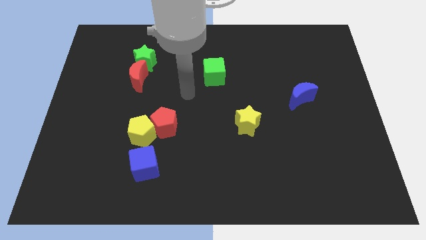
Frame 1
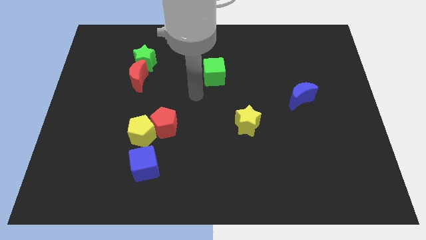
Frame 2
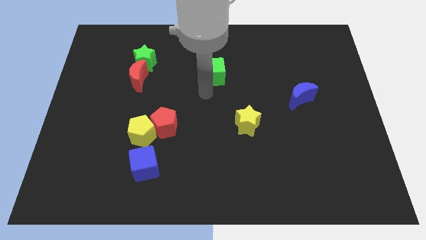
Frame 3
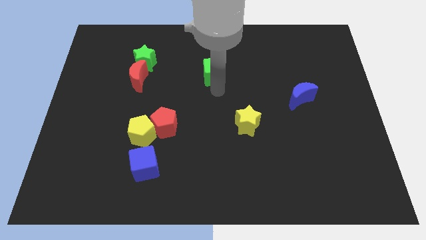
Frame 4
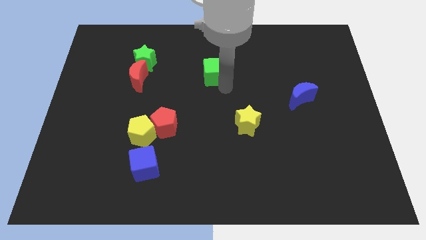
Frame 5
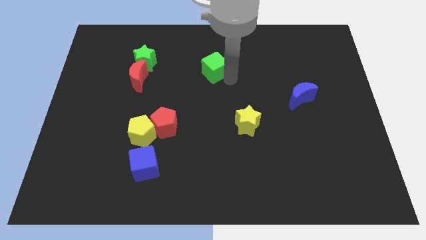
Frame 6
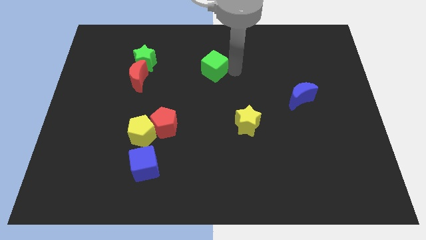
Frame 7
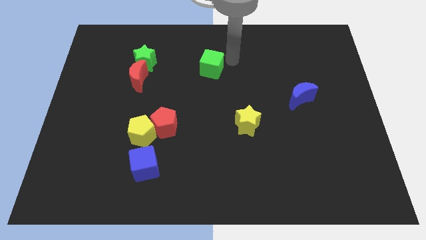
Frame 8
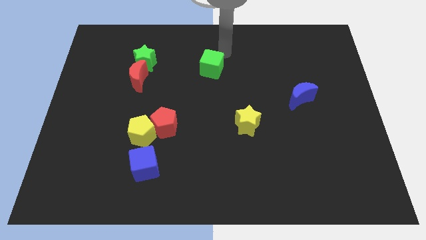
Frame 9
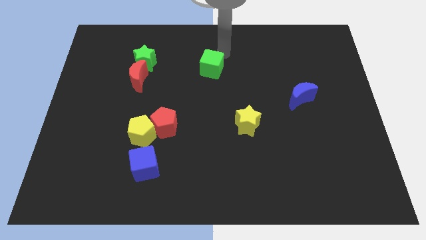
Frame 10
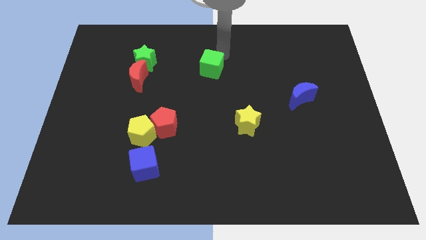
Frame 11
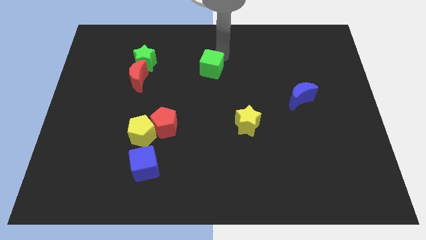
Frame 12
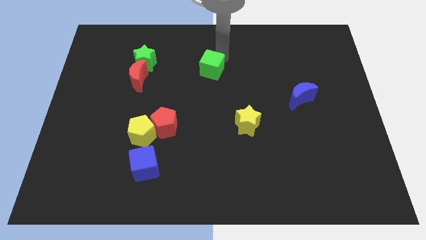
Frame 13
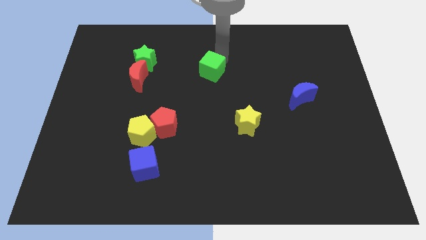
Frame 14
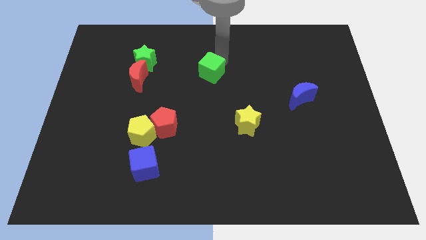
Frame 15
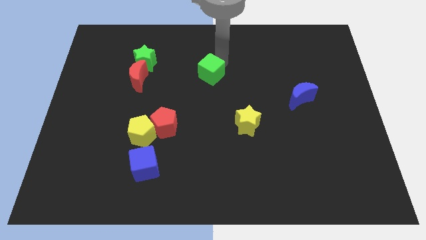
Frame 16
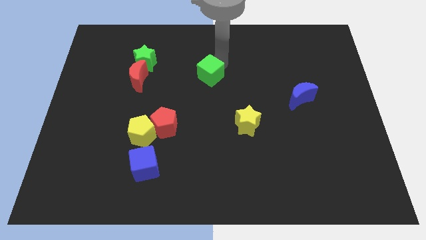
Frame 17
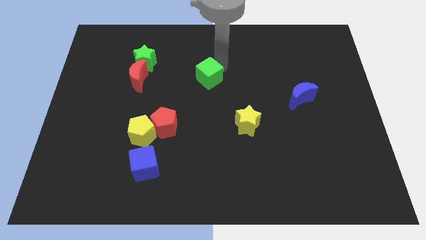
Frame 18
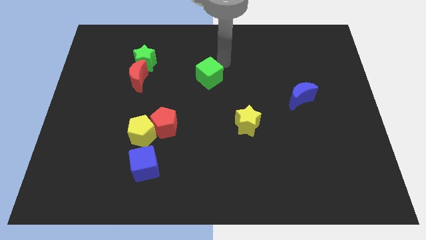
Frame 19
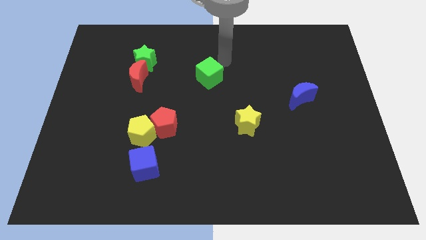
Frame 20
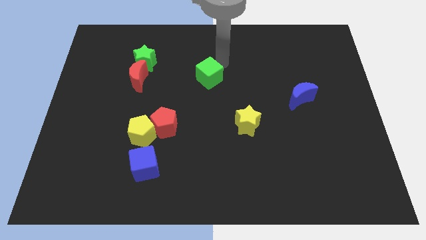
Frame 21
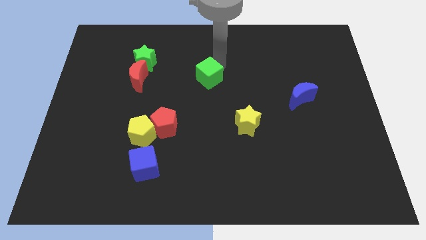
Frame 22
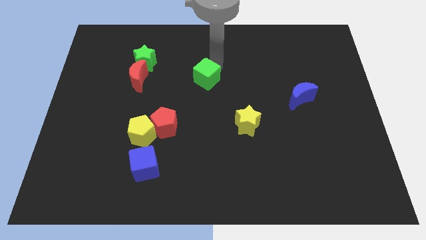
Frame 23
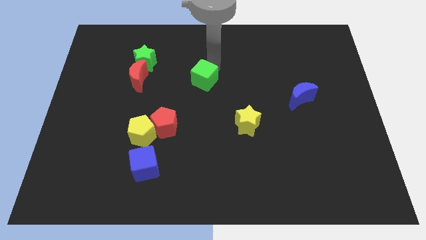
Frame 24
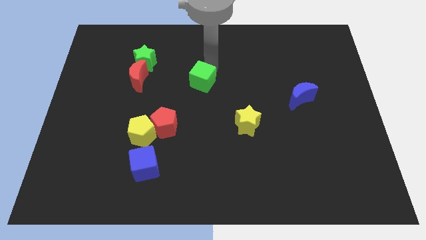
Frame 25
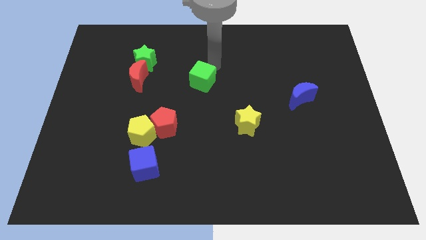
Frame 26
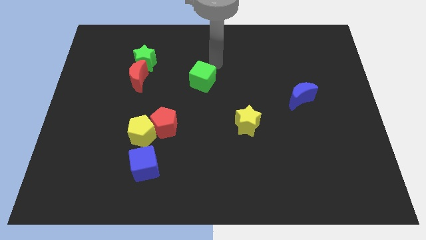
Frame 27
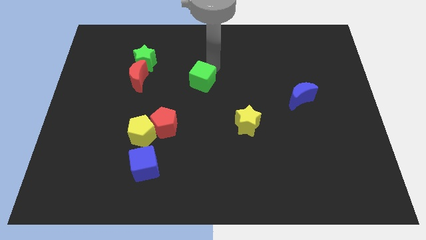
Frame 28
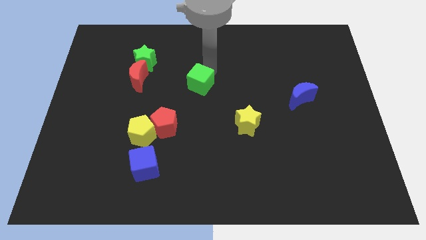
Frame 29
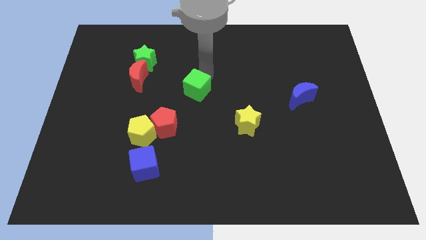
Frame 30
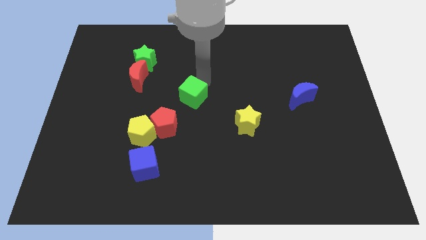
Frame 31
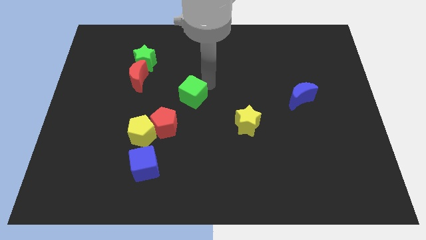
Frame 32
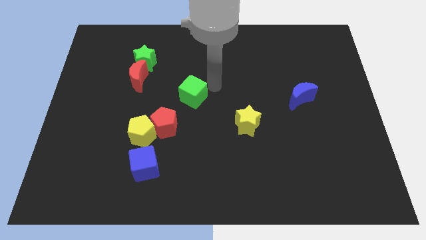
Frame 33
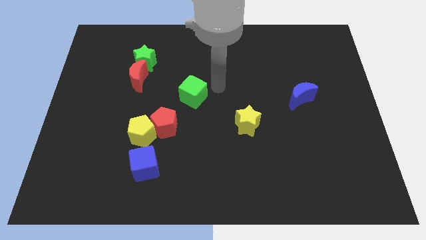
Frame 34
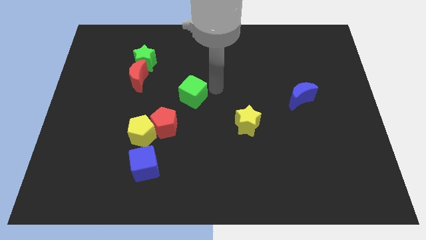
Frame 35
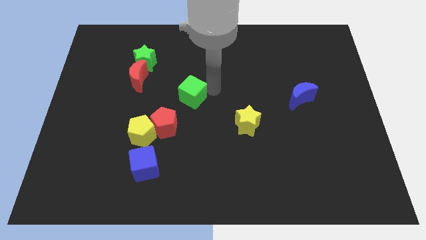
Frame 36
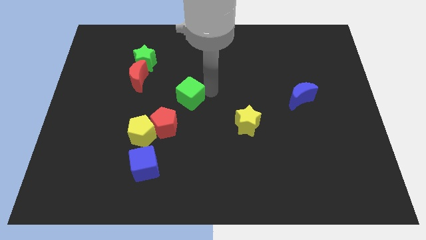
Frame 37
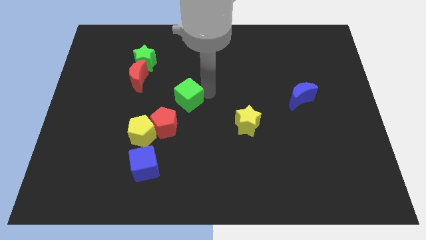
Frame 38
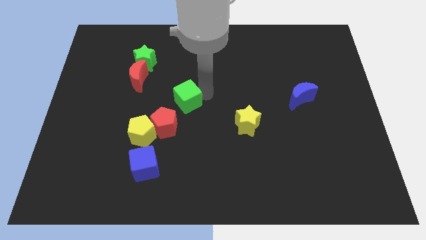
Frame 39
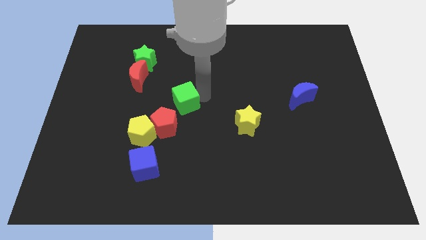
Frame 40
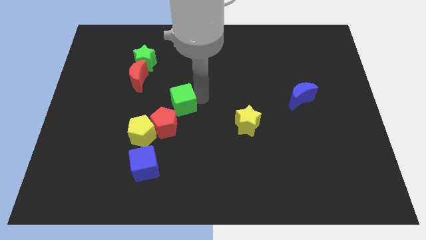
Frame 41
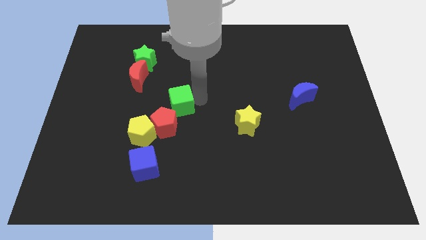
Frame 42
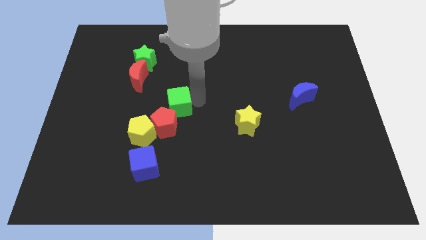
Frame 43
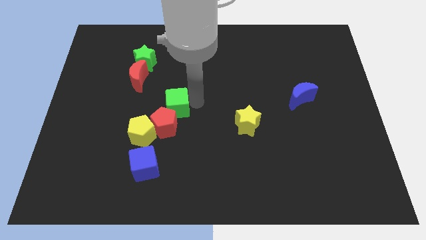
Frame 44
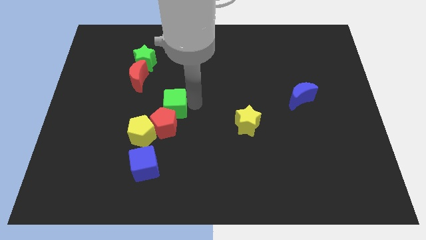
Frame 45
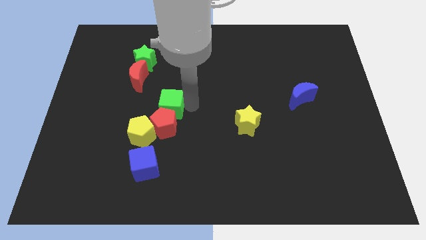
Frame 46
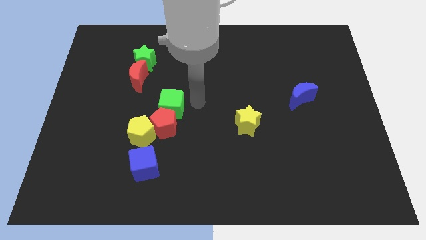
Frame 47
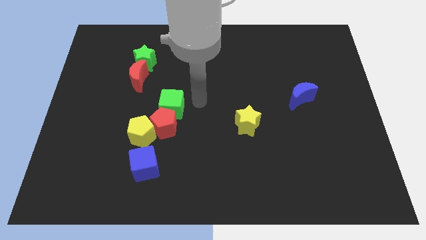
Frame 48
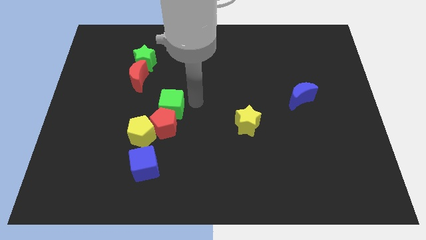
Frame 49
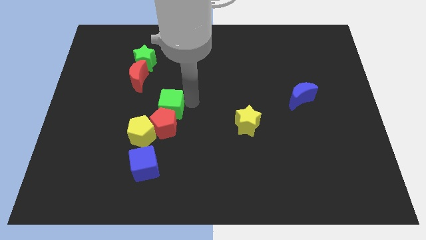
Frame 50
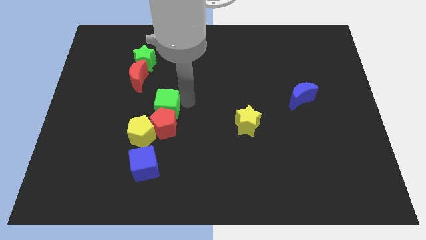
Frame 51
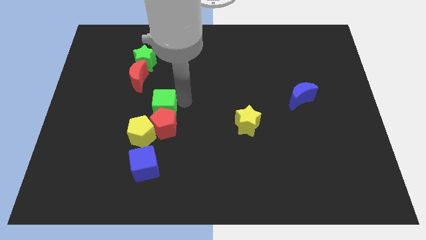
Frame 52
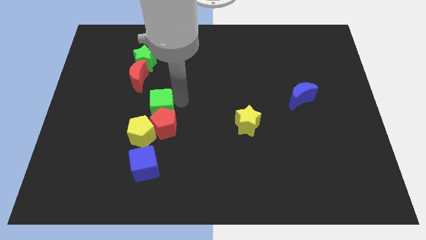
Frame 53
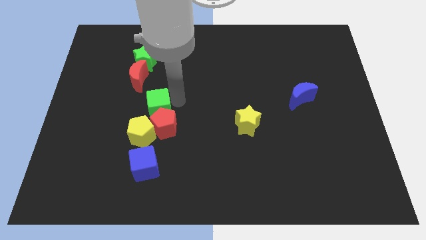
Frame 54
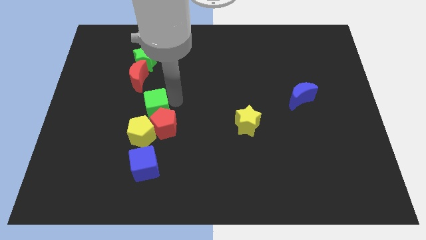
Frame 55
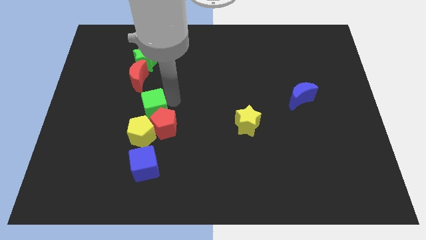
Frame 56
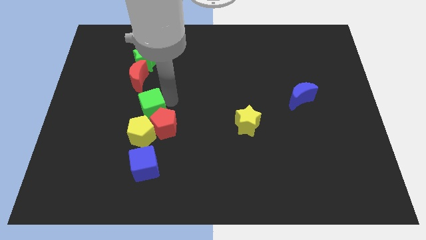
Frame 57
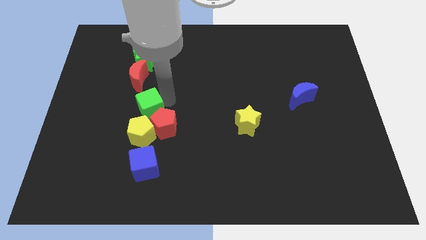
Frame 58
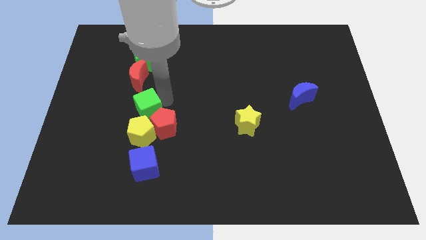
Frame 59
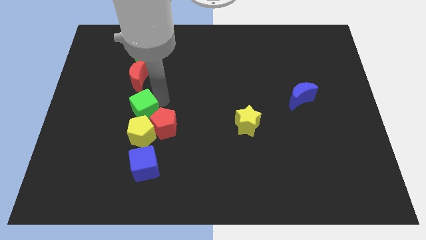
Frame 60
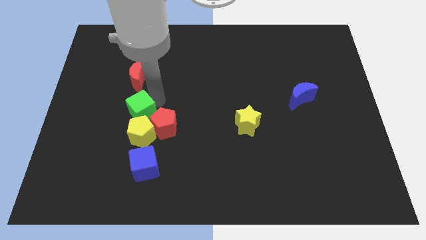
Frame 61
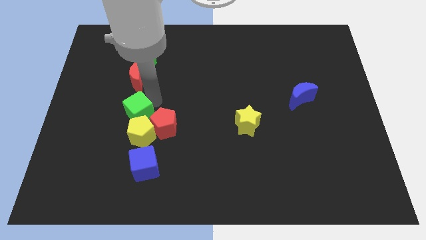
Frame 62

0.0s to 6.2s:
slide the green cube diagonally down and left

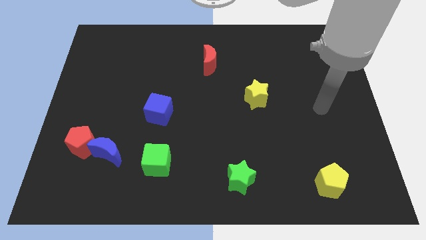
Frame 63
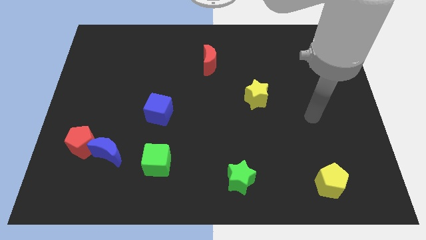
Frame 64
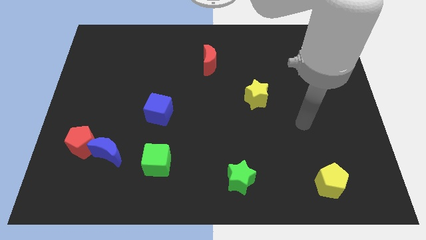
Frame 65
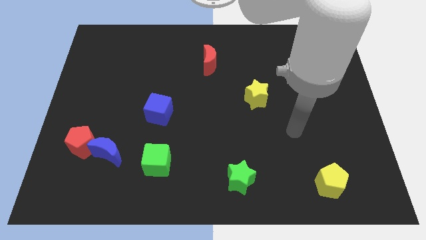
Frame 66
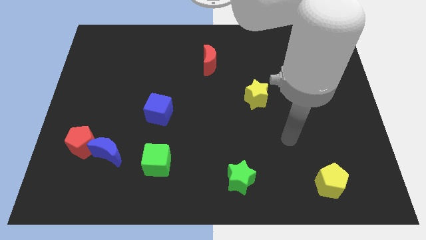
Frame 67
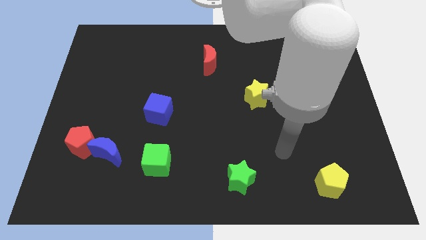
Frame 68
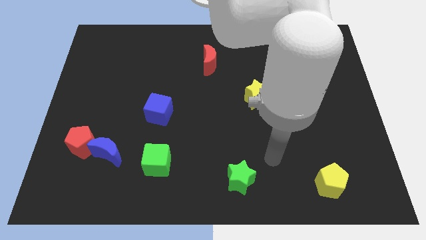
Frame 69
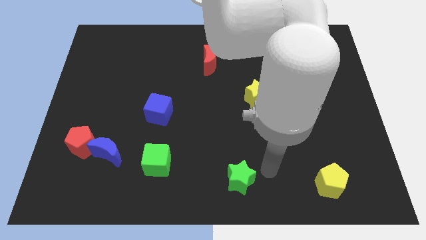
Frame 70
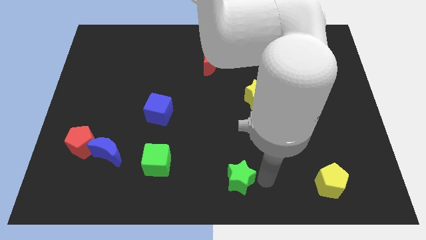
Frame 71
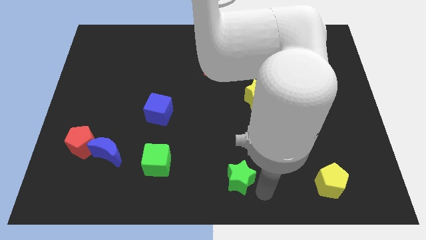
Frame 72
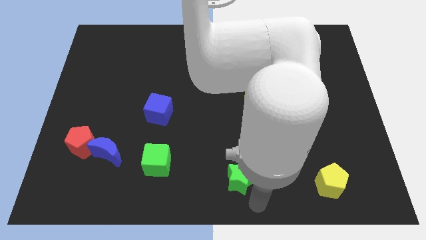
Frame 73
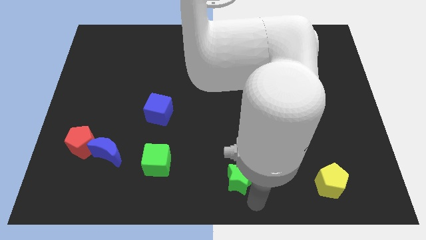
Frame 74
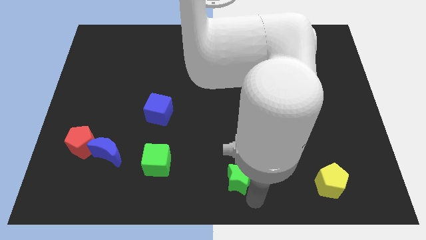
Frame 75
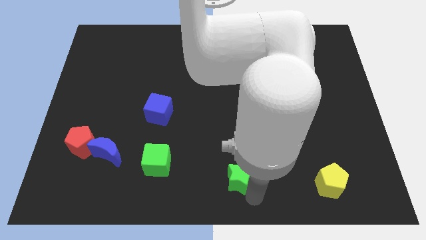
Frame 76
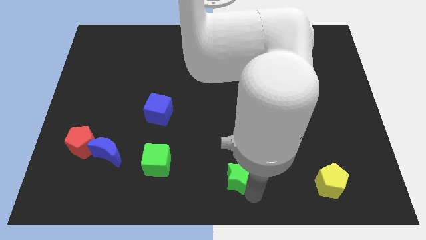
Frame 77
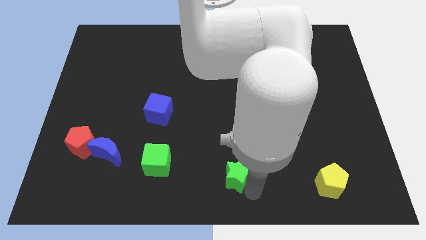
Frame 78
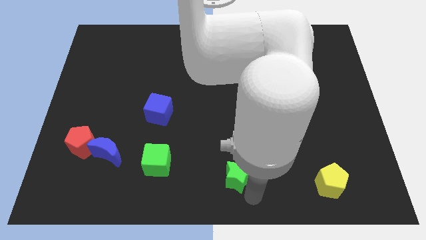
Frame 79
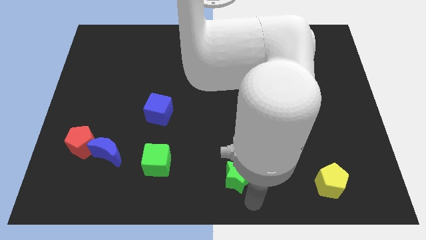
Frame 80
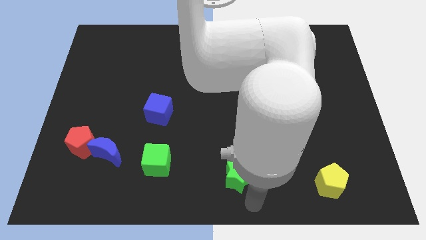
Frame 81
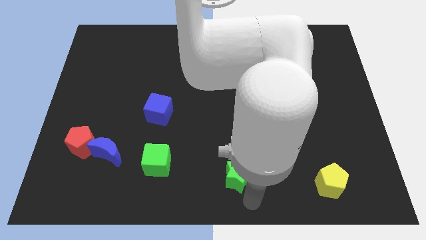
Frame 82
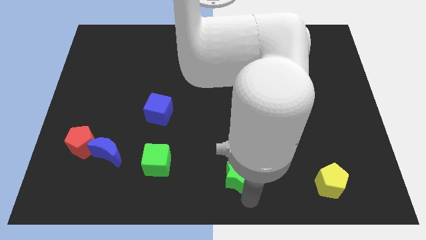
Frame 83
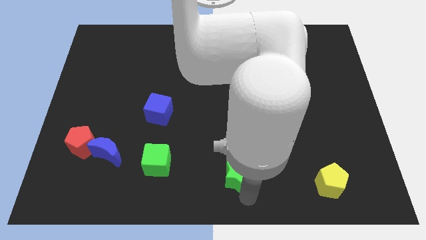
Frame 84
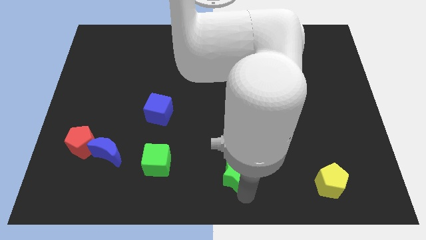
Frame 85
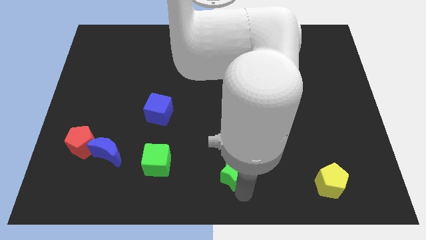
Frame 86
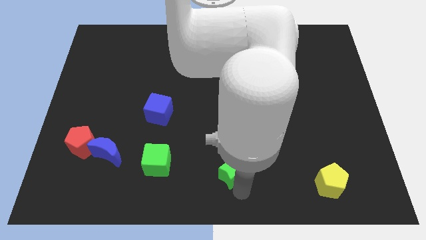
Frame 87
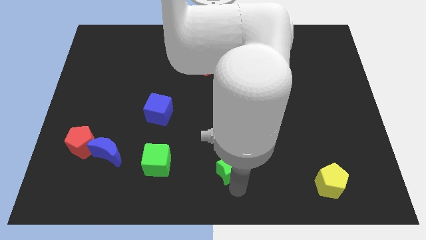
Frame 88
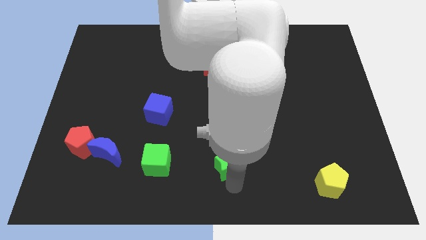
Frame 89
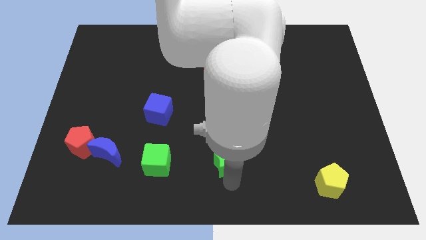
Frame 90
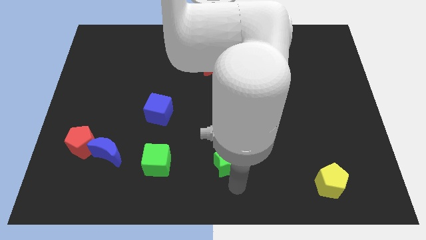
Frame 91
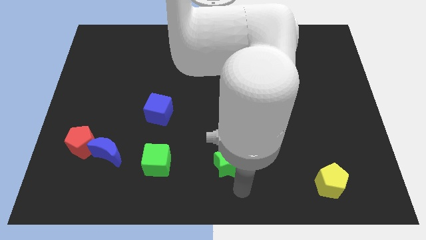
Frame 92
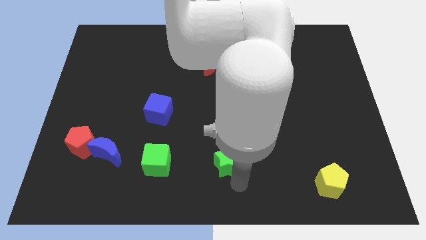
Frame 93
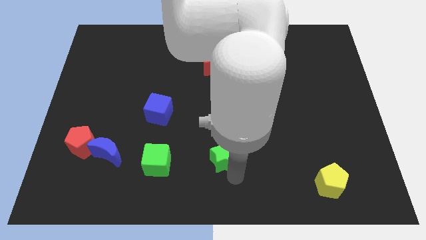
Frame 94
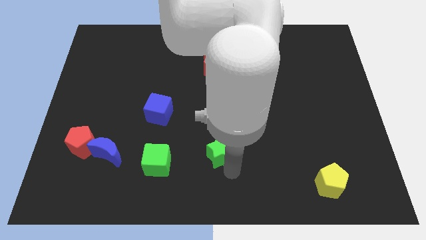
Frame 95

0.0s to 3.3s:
slightly push the green star up and then left
